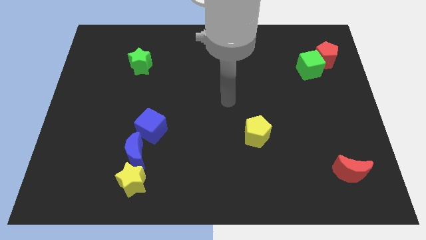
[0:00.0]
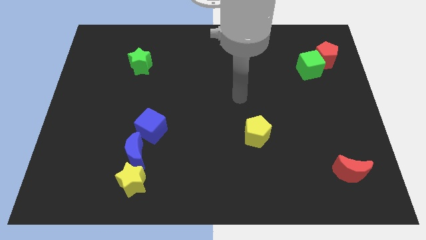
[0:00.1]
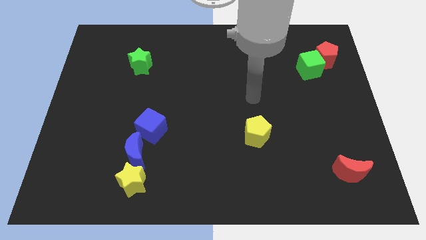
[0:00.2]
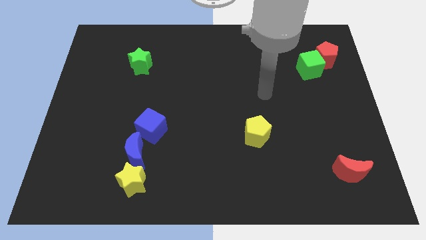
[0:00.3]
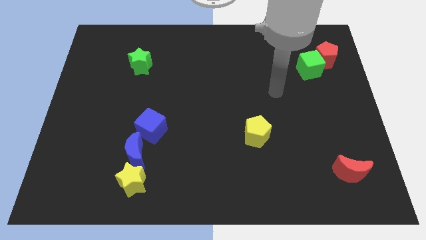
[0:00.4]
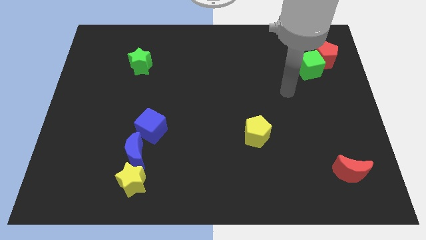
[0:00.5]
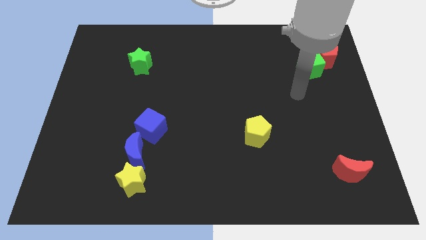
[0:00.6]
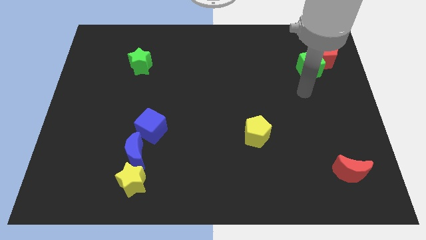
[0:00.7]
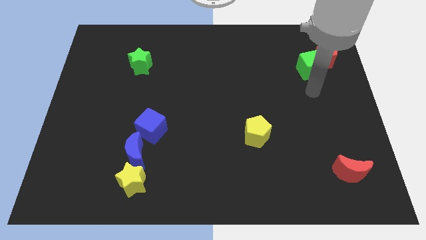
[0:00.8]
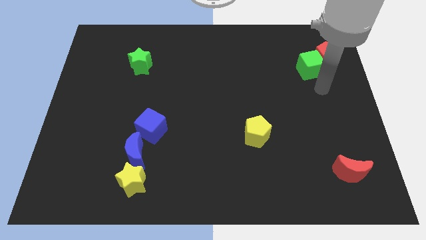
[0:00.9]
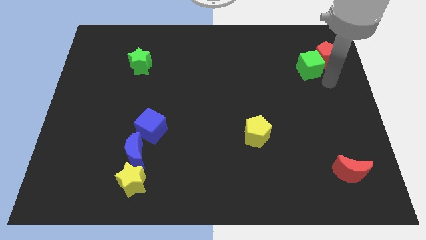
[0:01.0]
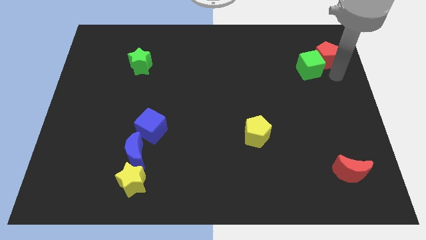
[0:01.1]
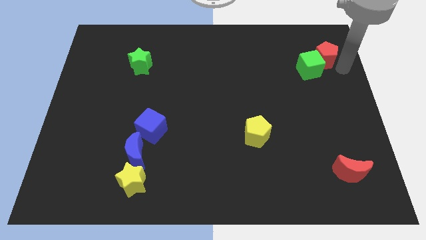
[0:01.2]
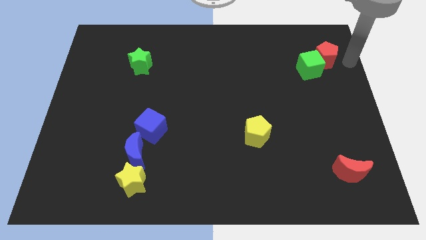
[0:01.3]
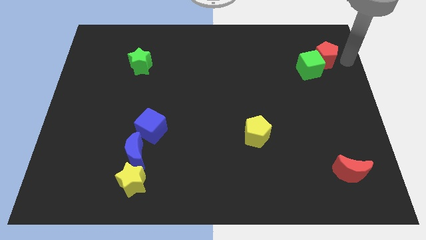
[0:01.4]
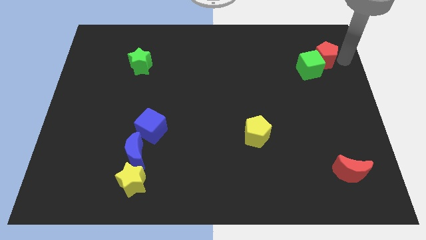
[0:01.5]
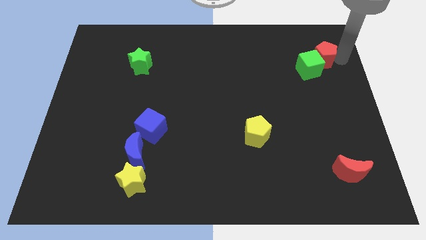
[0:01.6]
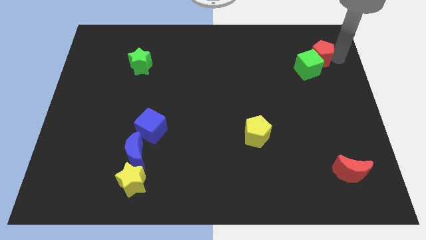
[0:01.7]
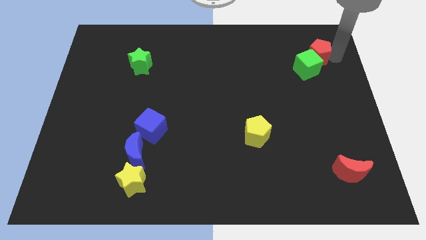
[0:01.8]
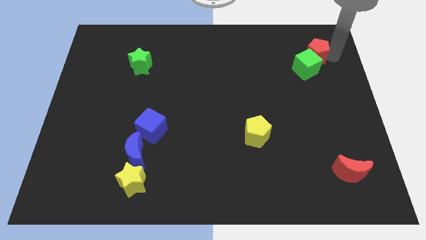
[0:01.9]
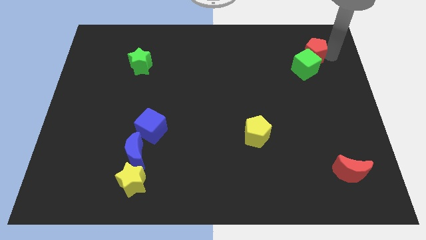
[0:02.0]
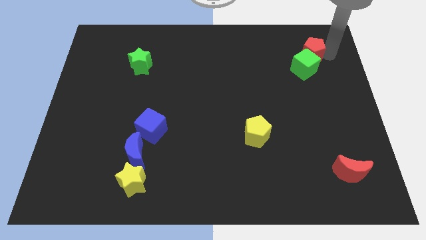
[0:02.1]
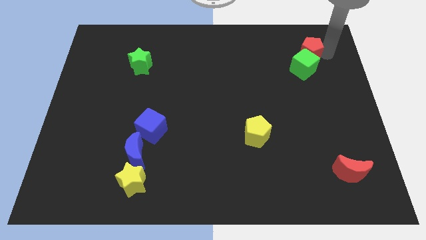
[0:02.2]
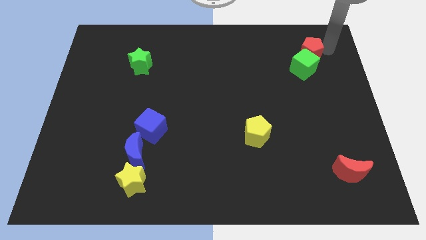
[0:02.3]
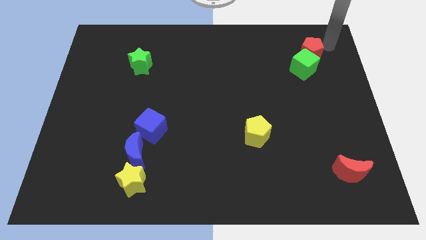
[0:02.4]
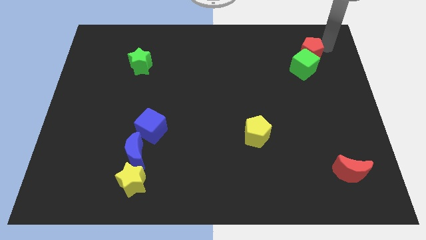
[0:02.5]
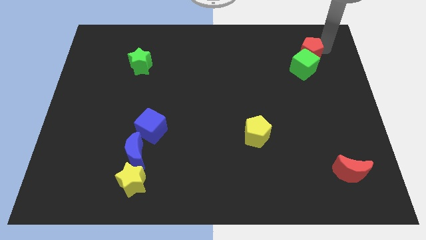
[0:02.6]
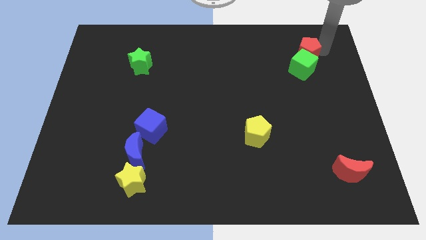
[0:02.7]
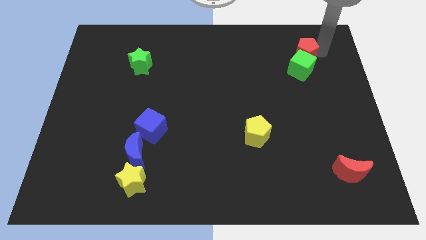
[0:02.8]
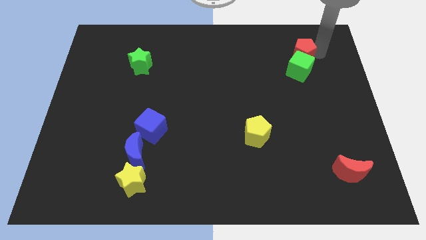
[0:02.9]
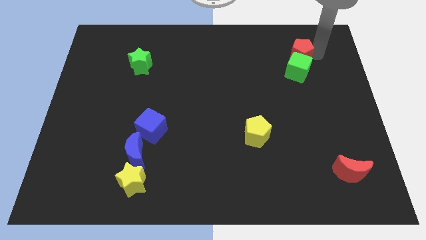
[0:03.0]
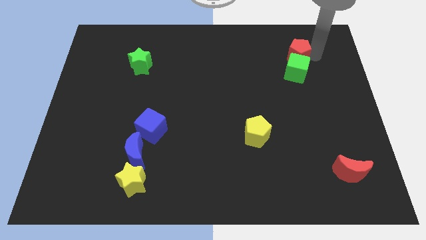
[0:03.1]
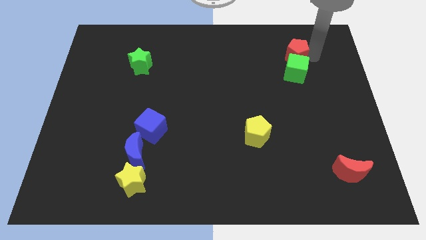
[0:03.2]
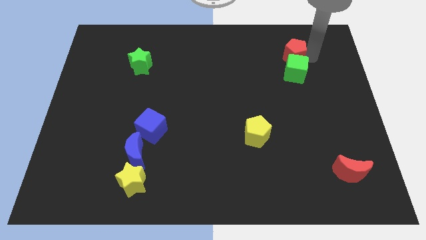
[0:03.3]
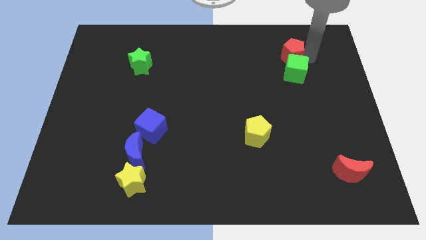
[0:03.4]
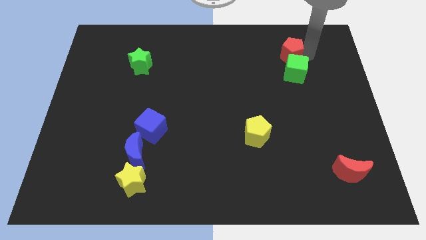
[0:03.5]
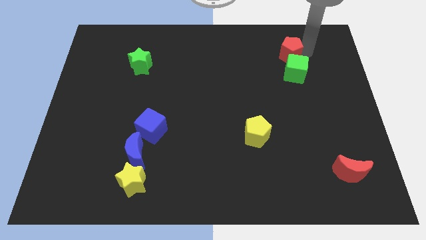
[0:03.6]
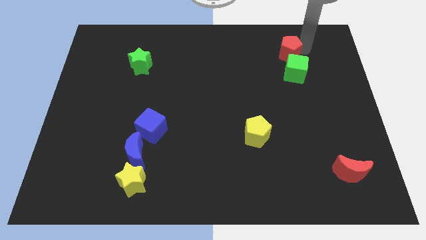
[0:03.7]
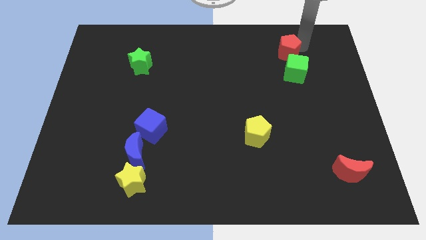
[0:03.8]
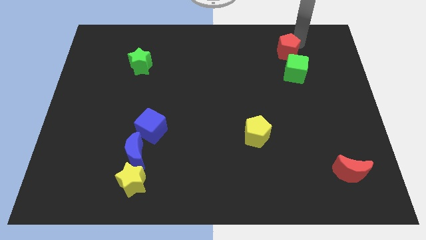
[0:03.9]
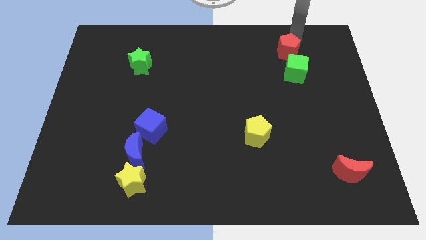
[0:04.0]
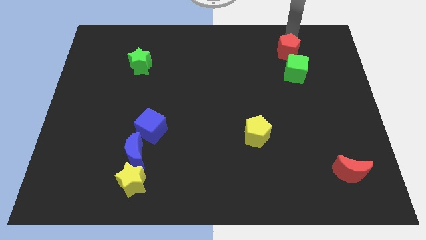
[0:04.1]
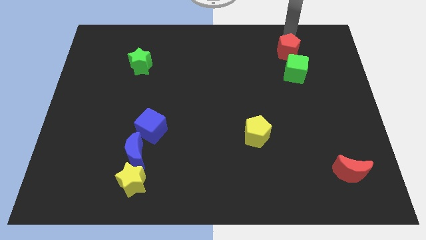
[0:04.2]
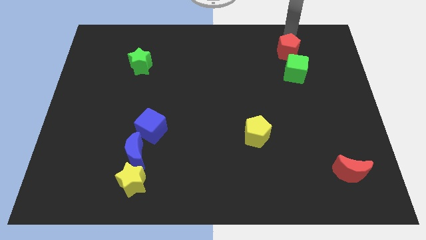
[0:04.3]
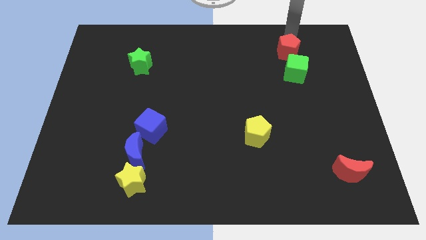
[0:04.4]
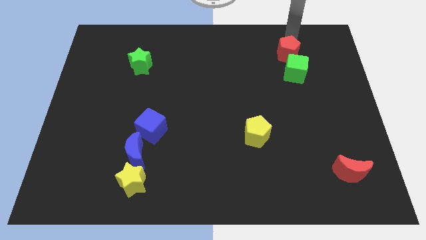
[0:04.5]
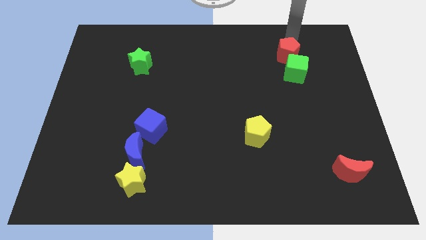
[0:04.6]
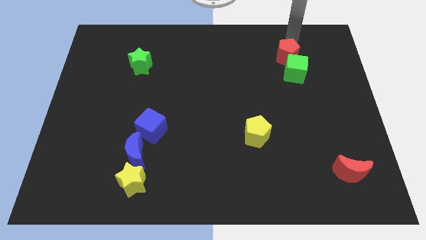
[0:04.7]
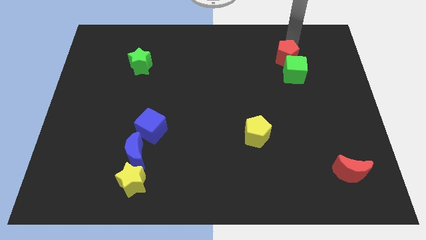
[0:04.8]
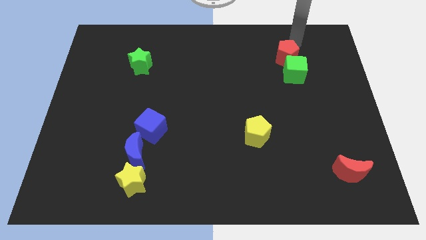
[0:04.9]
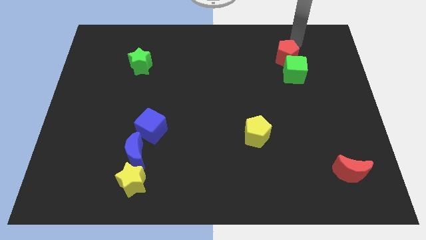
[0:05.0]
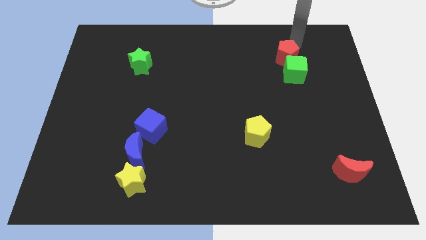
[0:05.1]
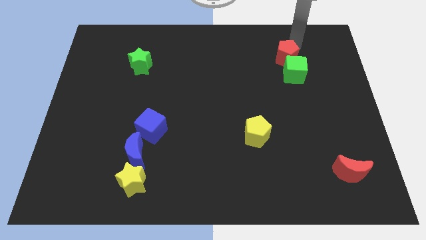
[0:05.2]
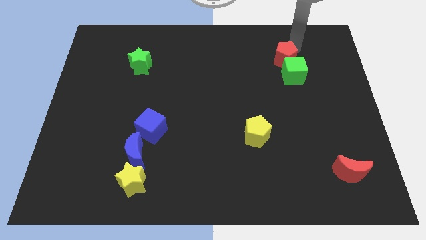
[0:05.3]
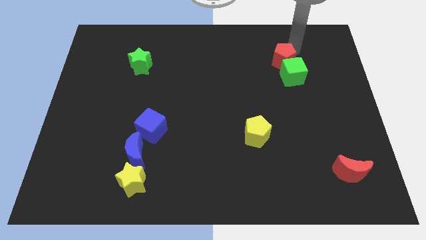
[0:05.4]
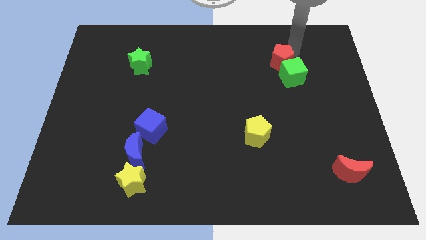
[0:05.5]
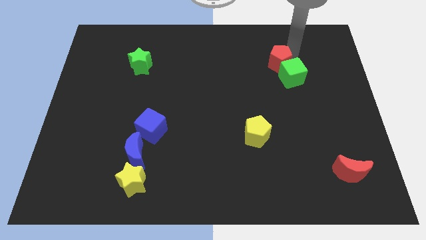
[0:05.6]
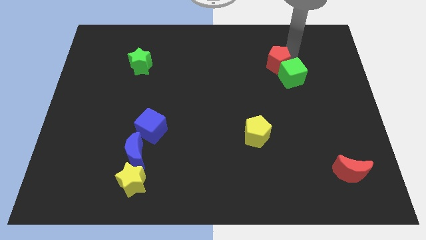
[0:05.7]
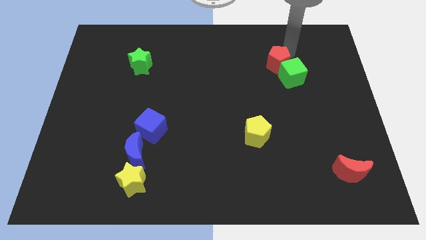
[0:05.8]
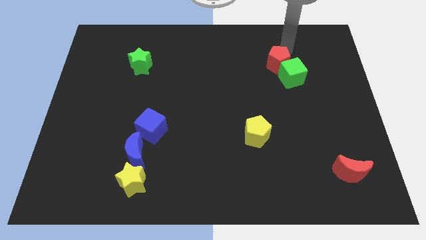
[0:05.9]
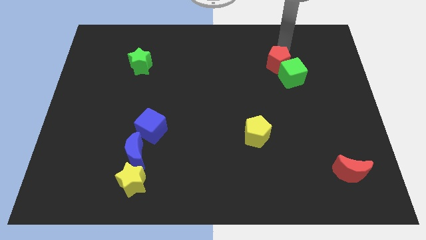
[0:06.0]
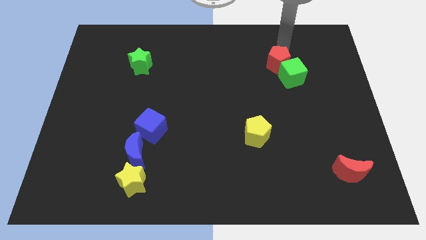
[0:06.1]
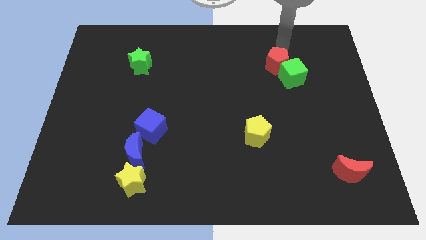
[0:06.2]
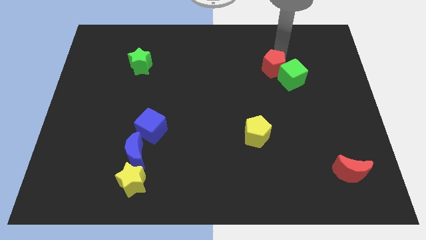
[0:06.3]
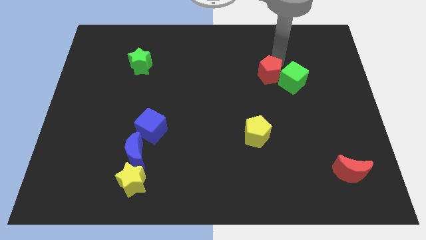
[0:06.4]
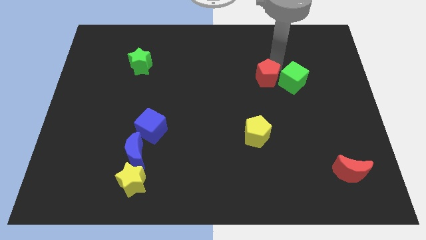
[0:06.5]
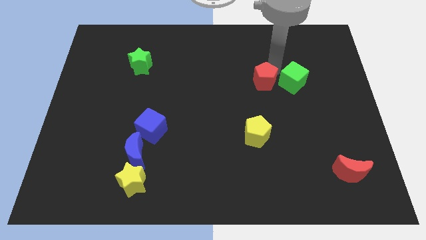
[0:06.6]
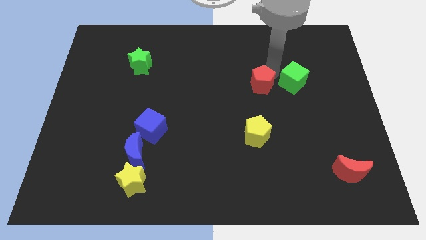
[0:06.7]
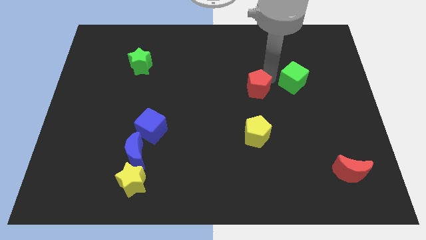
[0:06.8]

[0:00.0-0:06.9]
put the red pentagon to the center

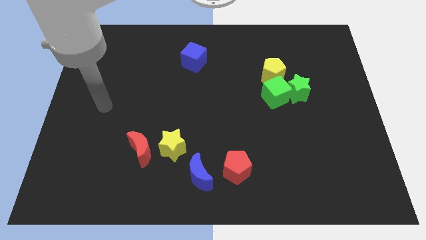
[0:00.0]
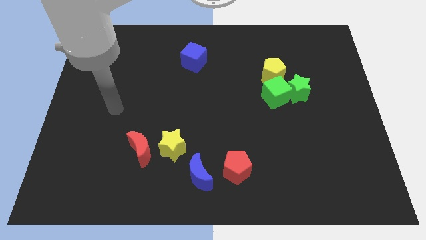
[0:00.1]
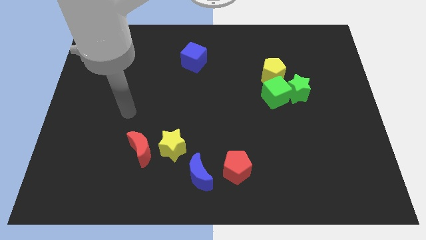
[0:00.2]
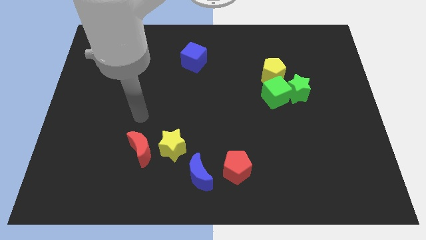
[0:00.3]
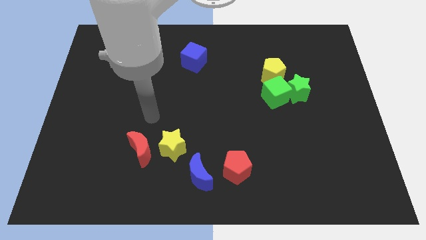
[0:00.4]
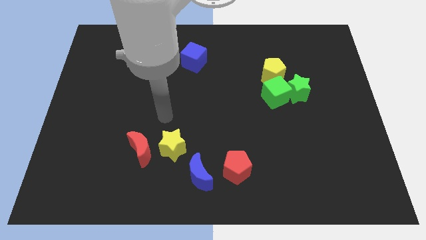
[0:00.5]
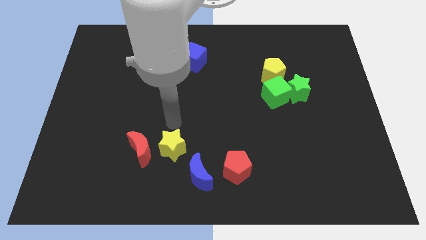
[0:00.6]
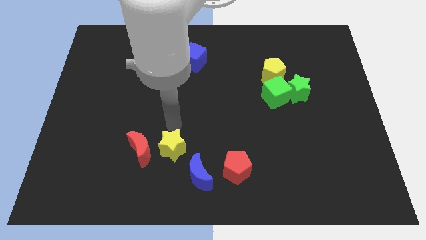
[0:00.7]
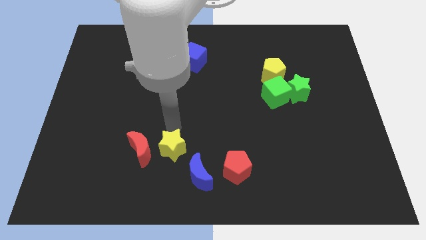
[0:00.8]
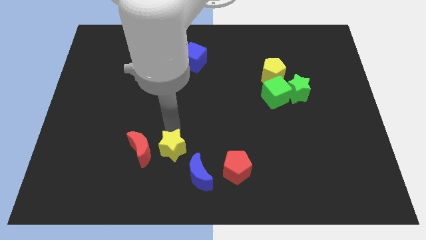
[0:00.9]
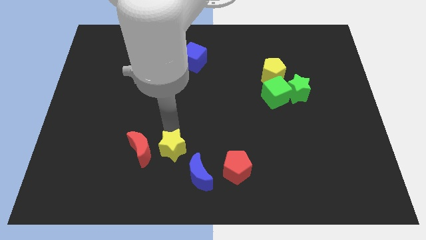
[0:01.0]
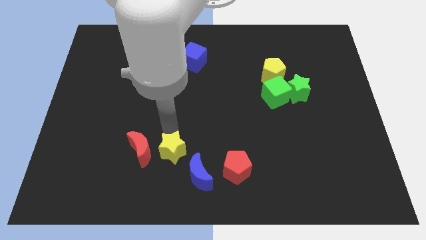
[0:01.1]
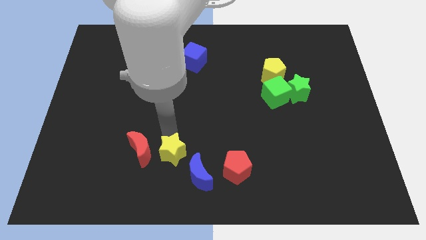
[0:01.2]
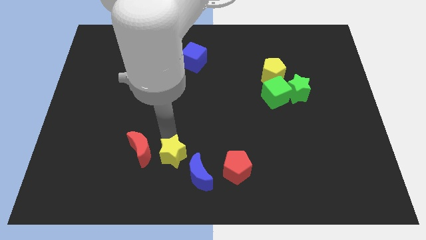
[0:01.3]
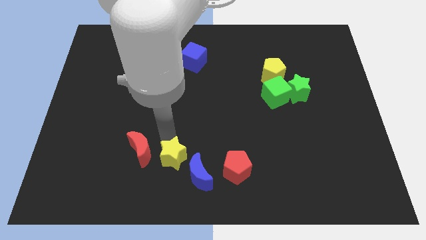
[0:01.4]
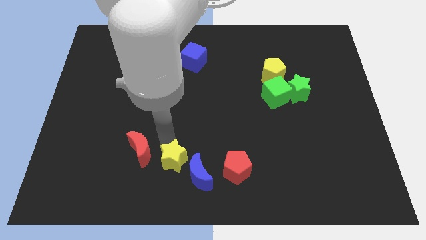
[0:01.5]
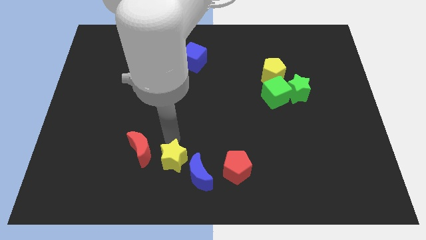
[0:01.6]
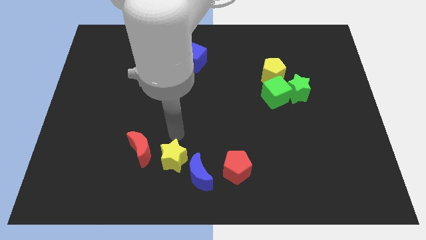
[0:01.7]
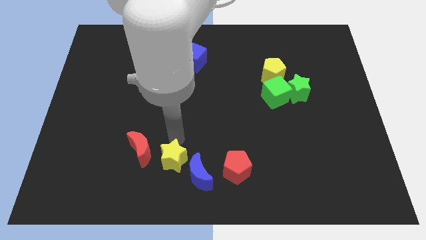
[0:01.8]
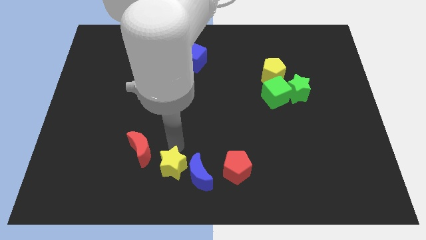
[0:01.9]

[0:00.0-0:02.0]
slide the yellow star to the bottom
